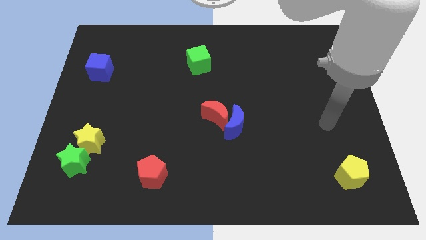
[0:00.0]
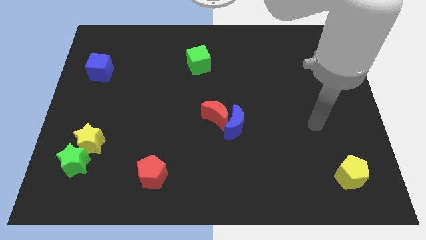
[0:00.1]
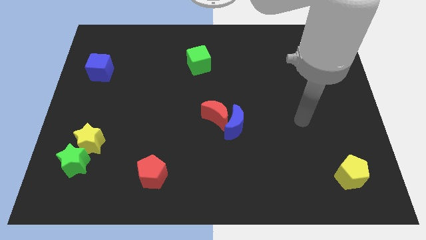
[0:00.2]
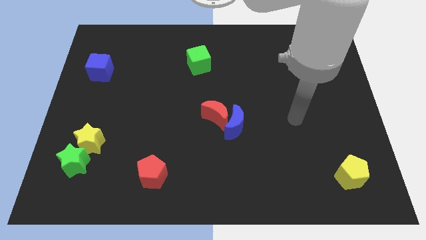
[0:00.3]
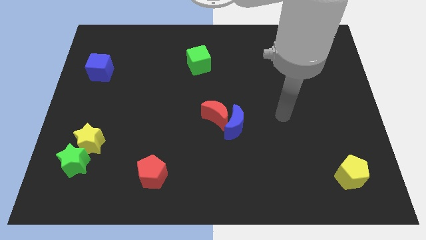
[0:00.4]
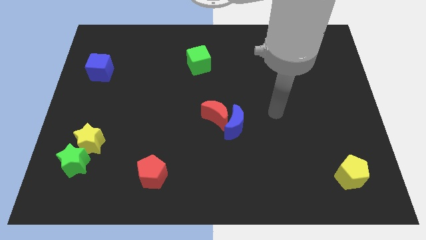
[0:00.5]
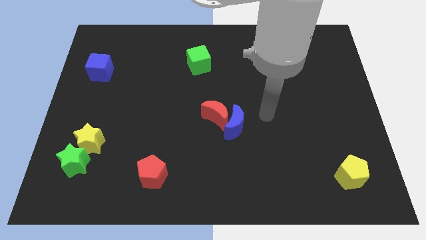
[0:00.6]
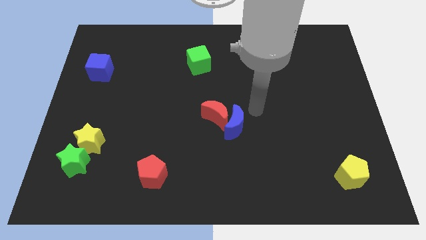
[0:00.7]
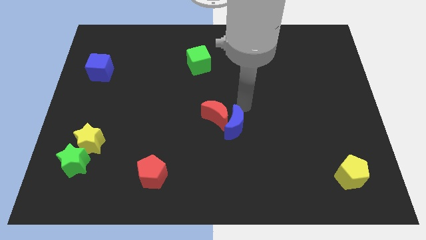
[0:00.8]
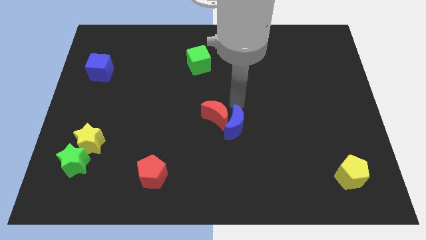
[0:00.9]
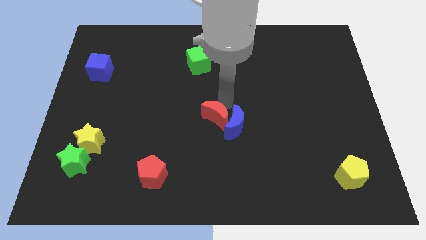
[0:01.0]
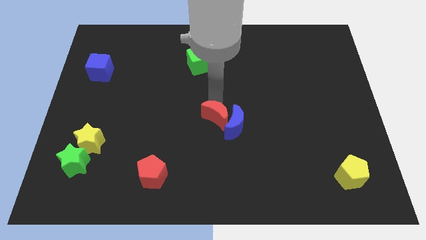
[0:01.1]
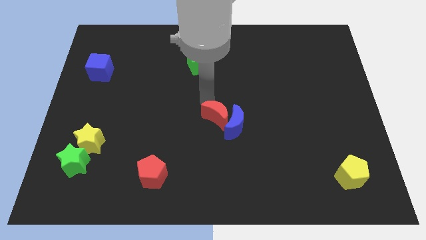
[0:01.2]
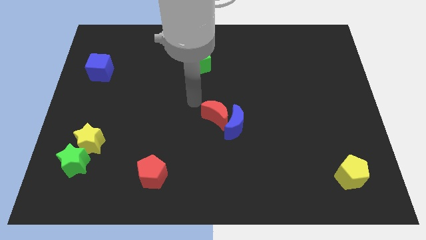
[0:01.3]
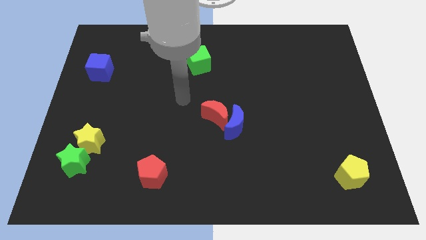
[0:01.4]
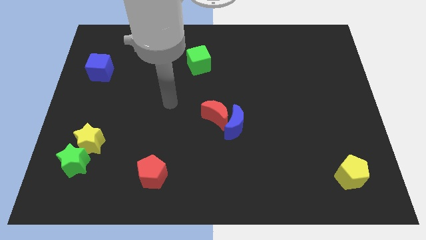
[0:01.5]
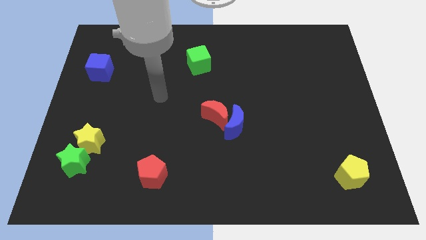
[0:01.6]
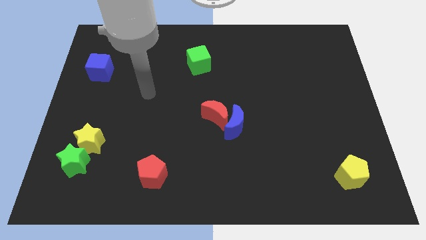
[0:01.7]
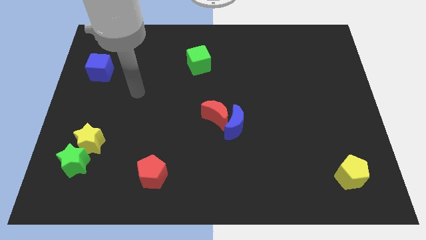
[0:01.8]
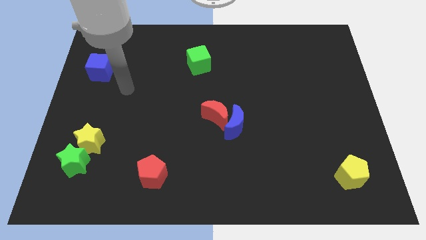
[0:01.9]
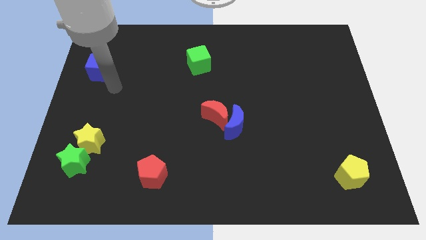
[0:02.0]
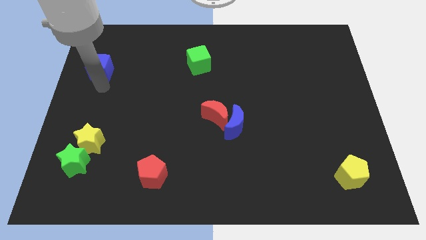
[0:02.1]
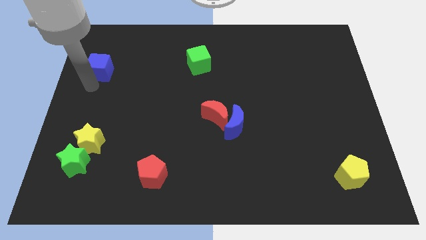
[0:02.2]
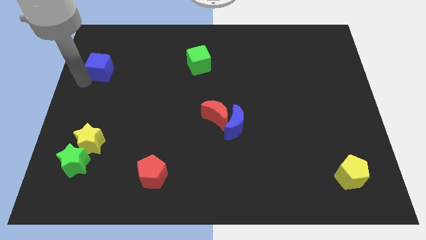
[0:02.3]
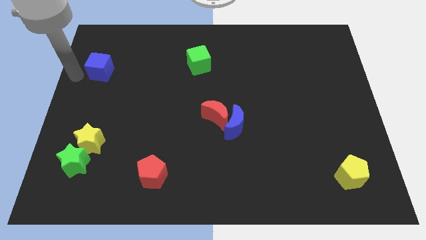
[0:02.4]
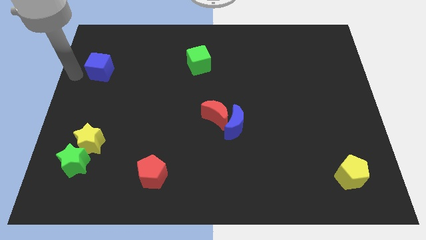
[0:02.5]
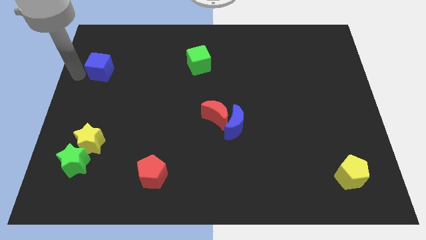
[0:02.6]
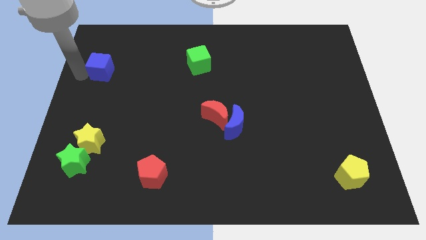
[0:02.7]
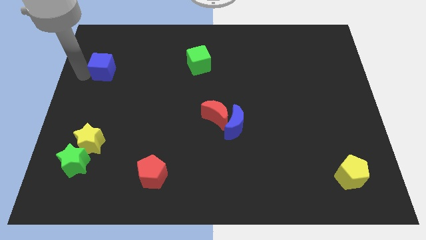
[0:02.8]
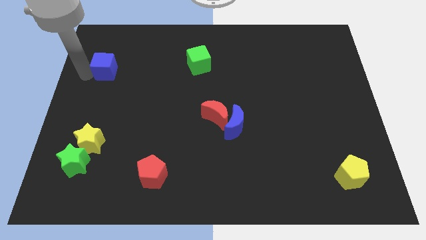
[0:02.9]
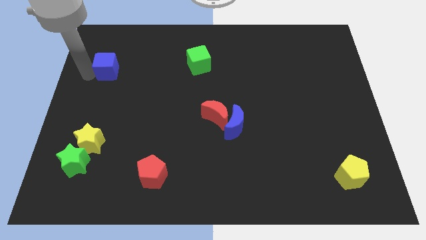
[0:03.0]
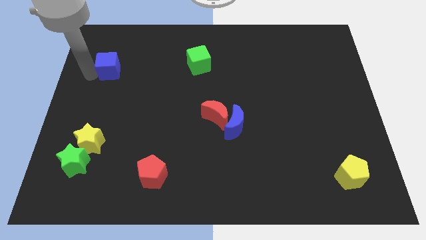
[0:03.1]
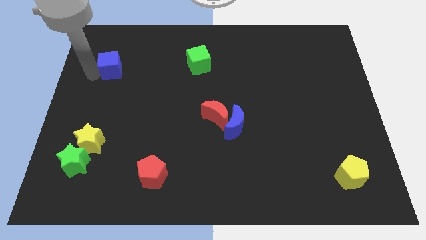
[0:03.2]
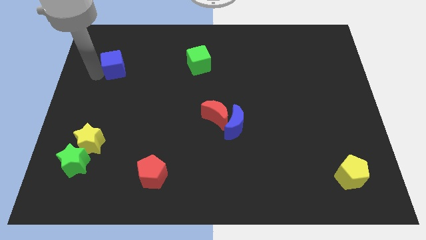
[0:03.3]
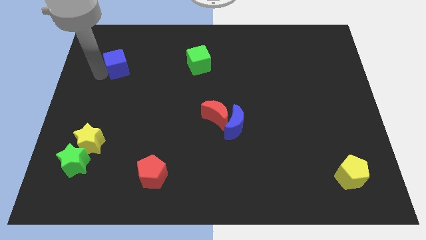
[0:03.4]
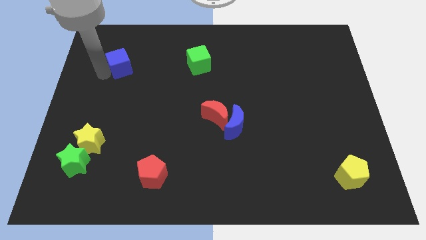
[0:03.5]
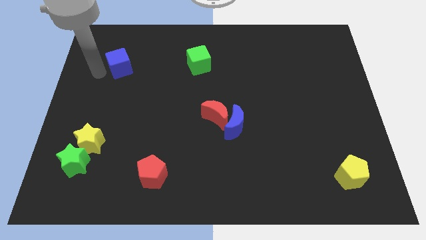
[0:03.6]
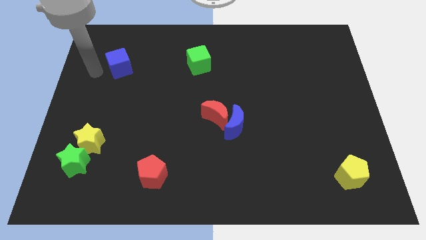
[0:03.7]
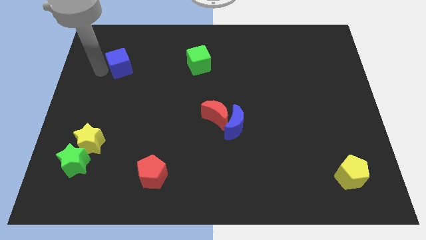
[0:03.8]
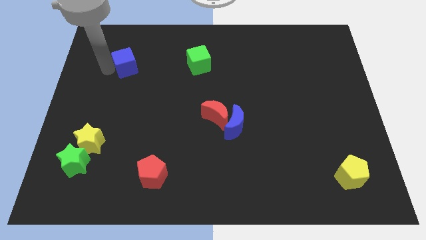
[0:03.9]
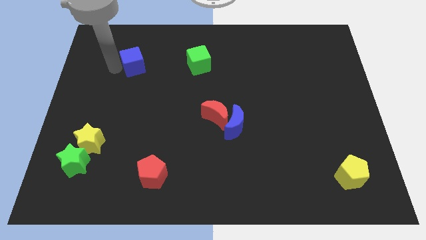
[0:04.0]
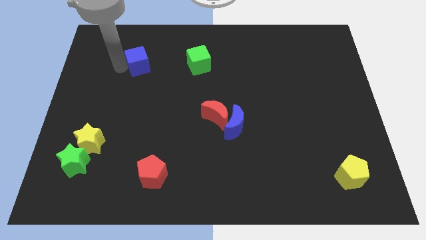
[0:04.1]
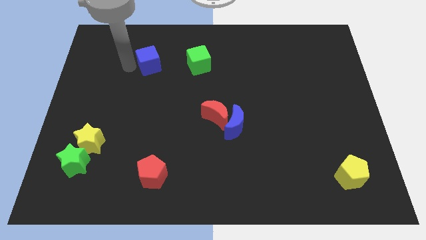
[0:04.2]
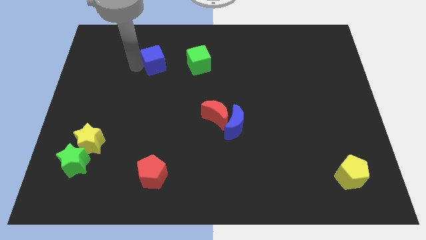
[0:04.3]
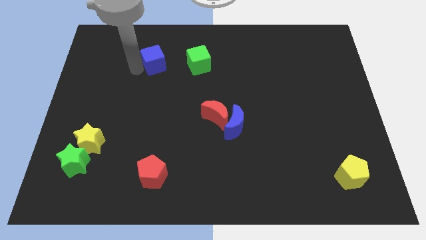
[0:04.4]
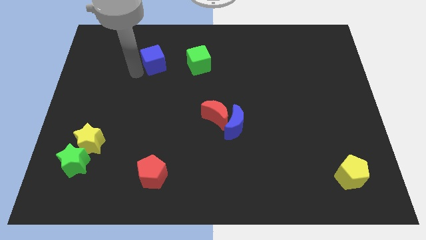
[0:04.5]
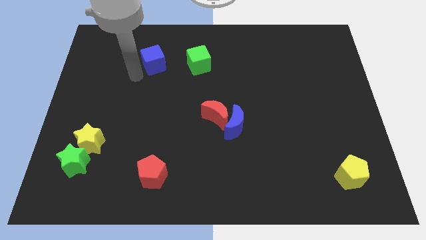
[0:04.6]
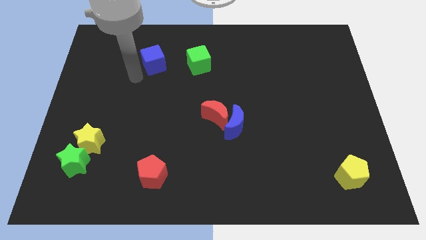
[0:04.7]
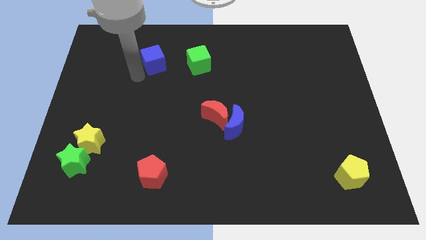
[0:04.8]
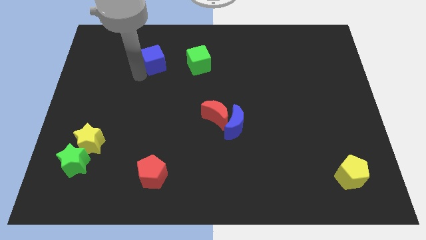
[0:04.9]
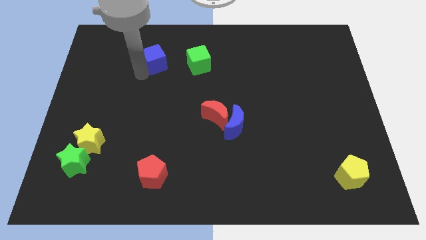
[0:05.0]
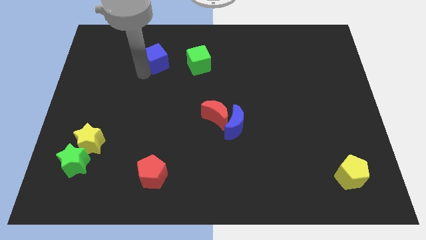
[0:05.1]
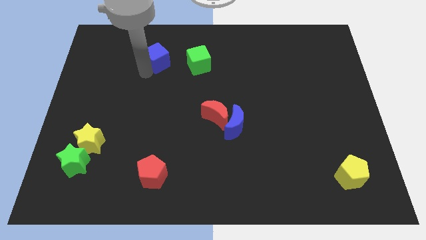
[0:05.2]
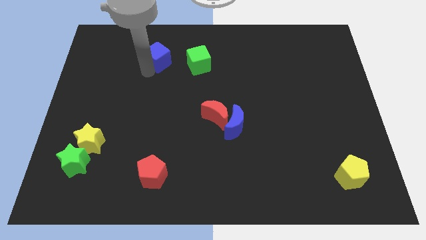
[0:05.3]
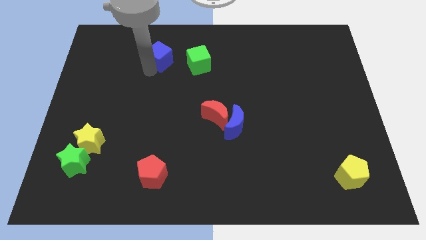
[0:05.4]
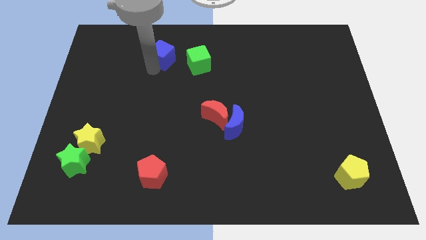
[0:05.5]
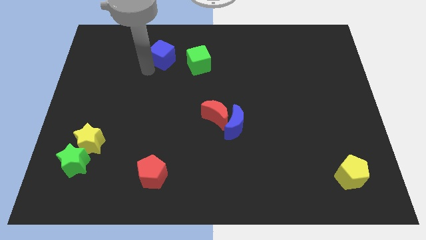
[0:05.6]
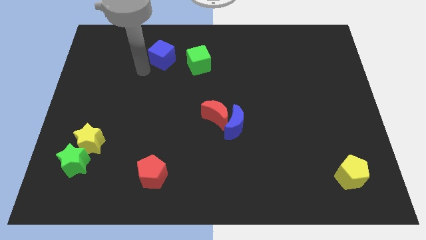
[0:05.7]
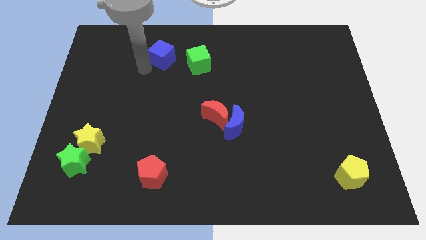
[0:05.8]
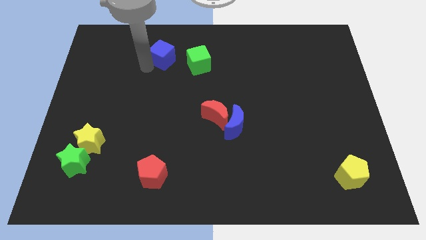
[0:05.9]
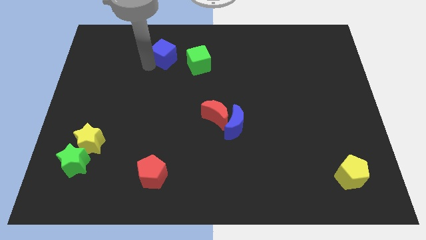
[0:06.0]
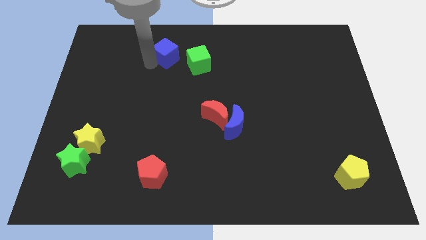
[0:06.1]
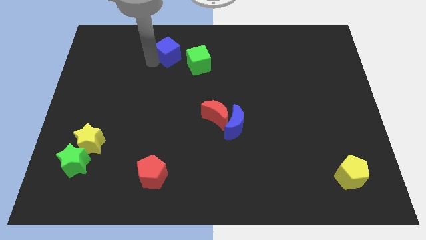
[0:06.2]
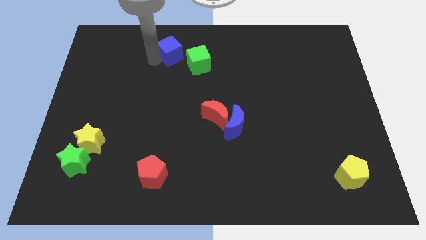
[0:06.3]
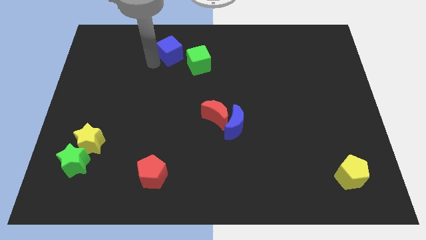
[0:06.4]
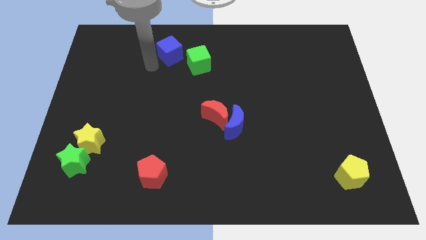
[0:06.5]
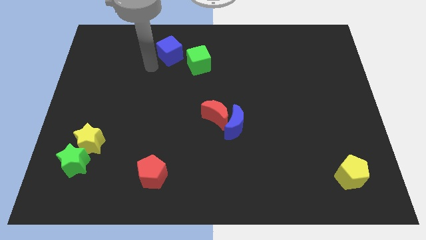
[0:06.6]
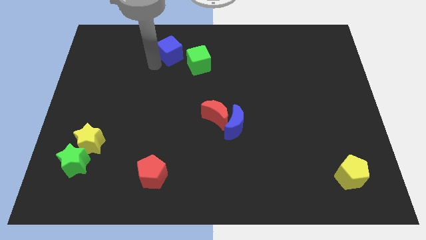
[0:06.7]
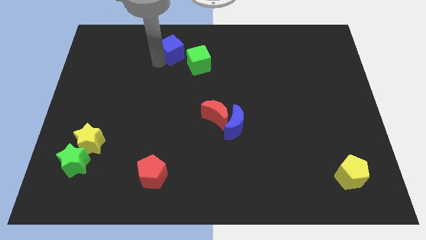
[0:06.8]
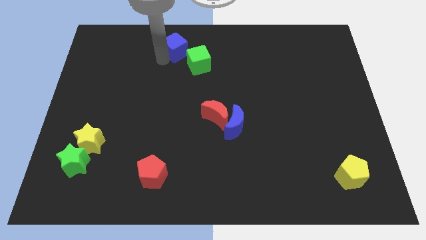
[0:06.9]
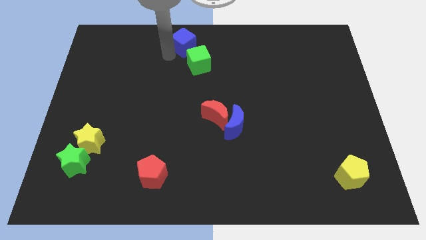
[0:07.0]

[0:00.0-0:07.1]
move the blue cube to the top side
